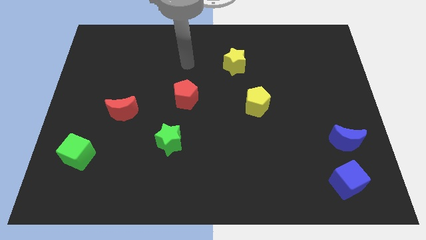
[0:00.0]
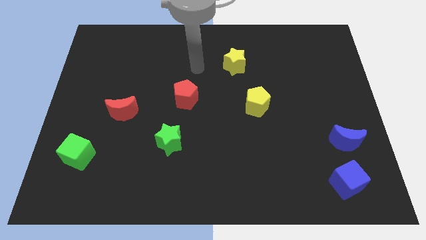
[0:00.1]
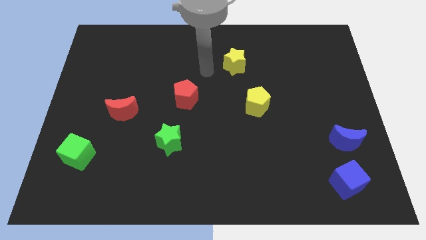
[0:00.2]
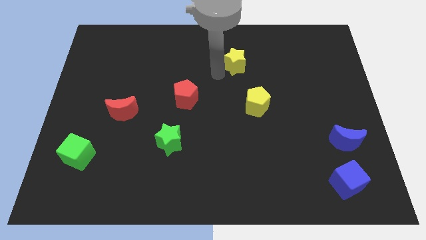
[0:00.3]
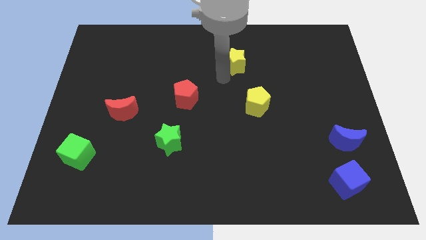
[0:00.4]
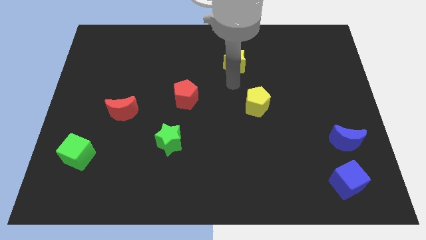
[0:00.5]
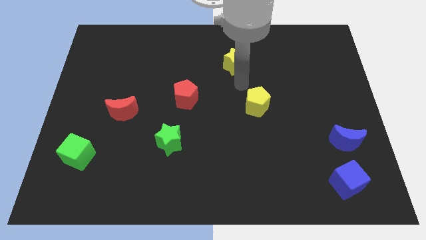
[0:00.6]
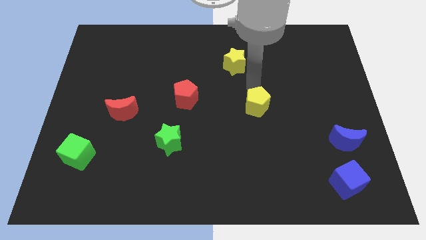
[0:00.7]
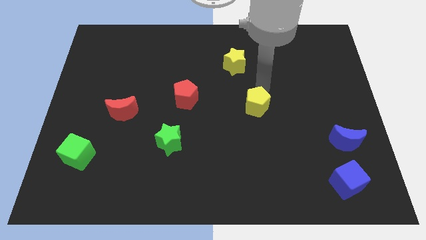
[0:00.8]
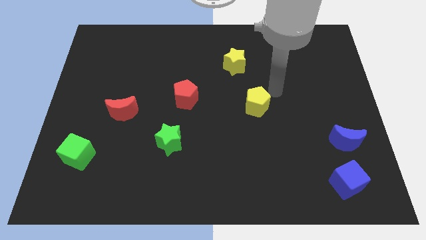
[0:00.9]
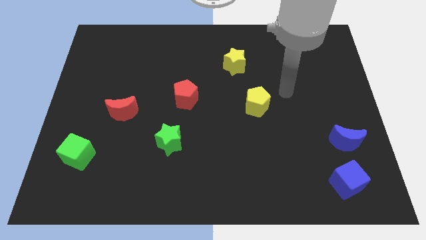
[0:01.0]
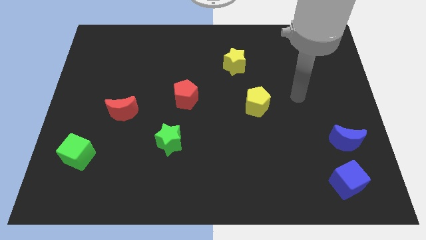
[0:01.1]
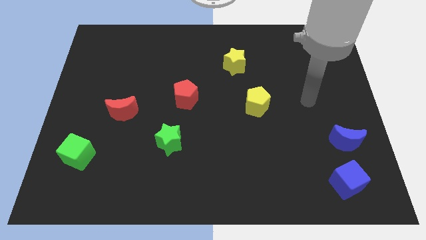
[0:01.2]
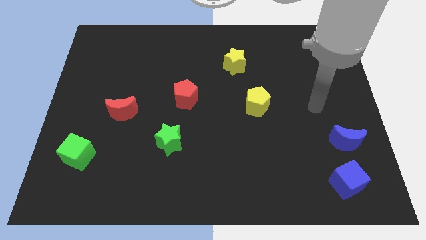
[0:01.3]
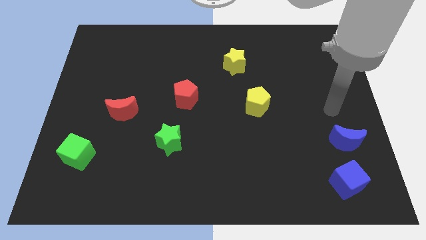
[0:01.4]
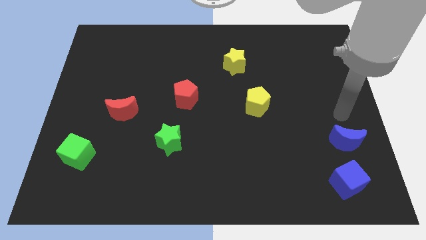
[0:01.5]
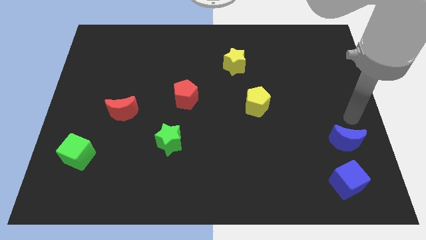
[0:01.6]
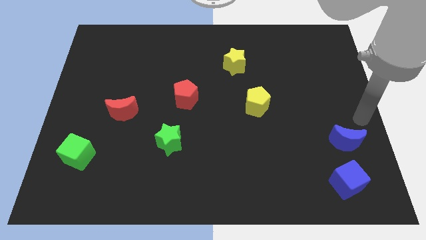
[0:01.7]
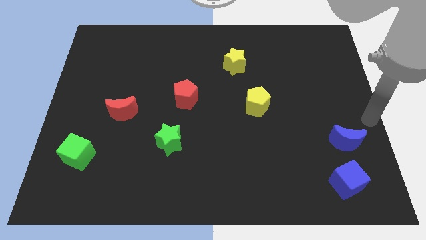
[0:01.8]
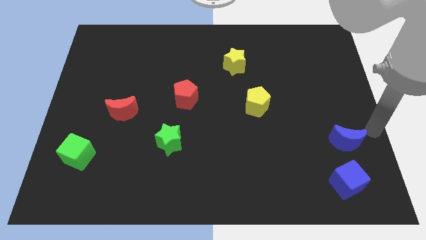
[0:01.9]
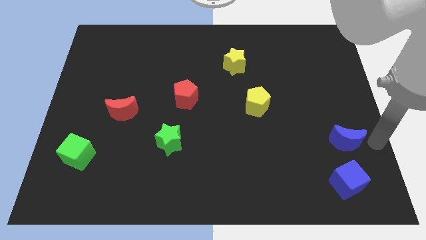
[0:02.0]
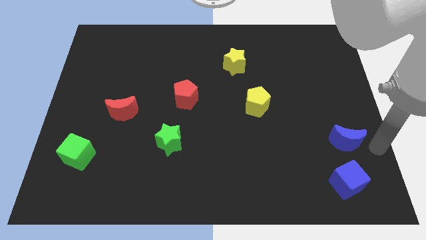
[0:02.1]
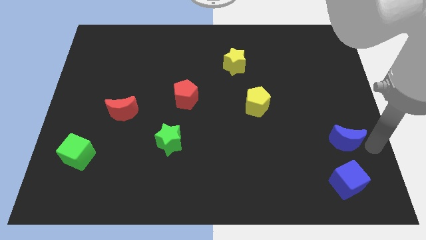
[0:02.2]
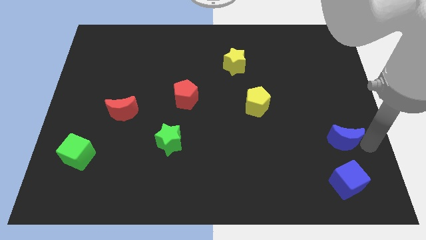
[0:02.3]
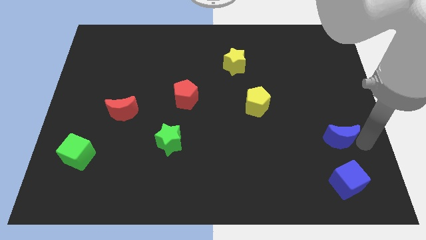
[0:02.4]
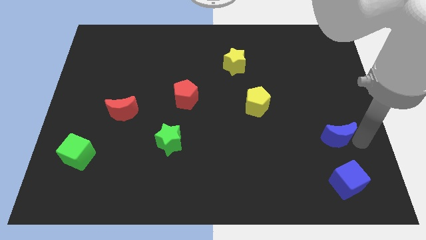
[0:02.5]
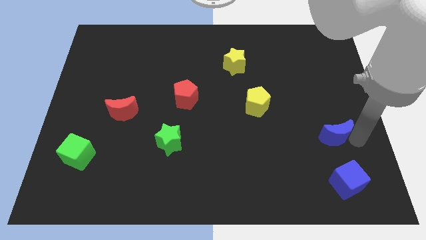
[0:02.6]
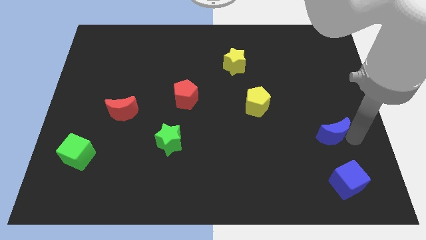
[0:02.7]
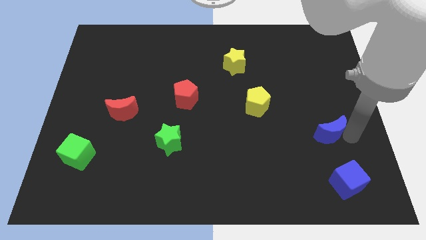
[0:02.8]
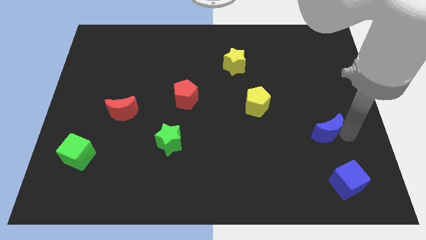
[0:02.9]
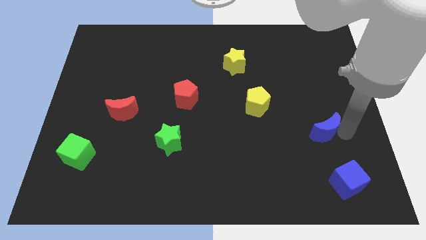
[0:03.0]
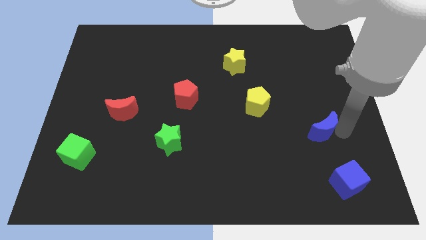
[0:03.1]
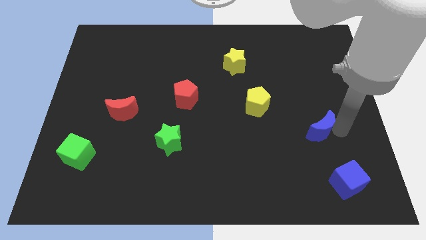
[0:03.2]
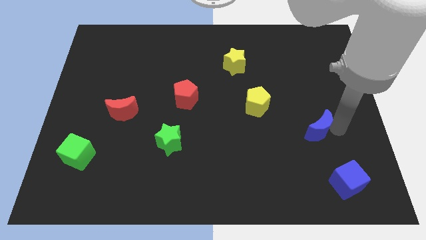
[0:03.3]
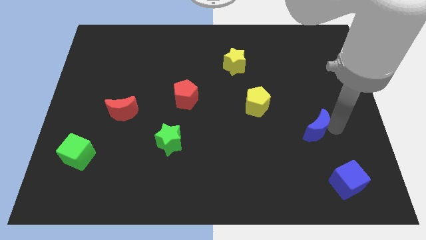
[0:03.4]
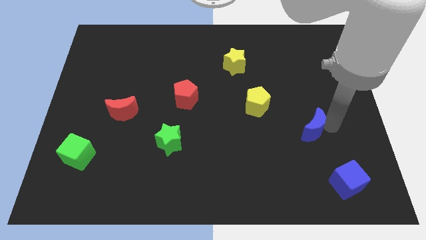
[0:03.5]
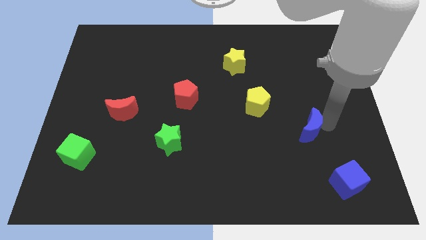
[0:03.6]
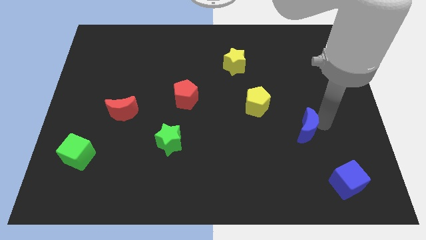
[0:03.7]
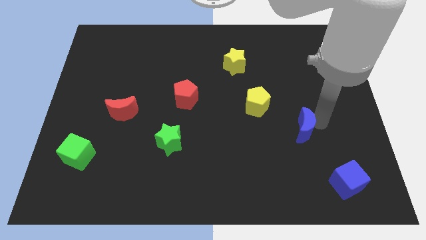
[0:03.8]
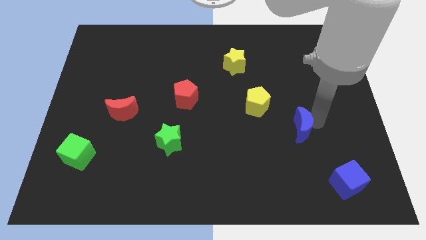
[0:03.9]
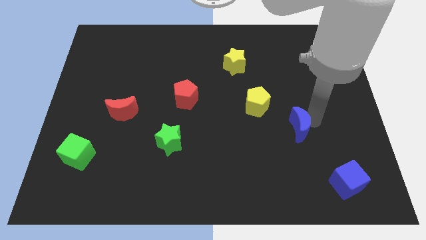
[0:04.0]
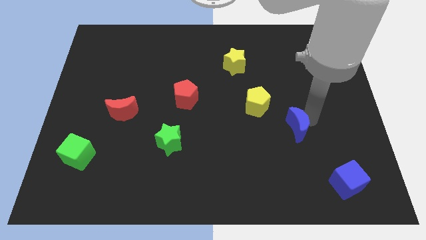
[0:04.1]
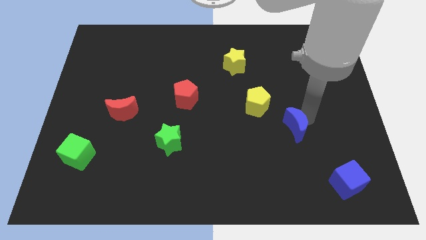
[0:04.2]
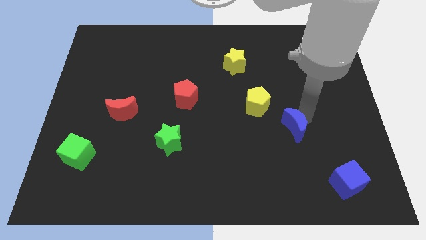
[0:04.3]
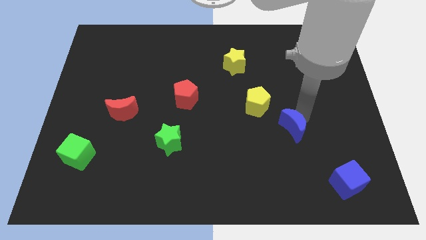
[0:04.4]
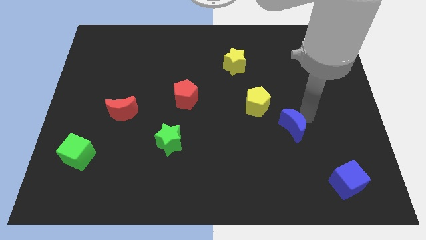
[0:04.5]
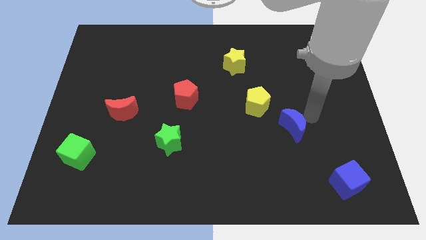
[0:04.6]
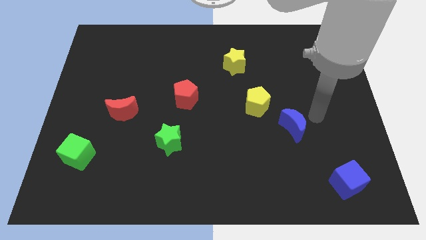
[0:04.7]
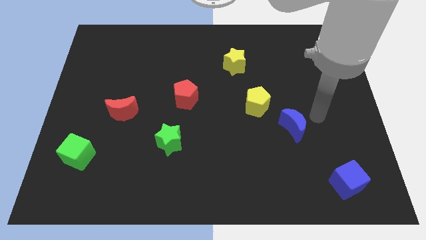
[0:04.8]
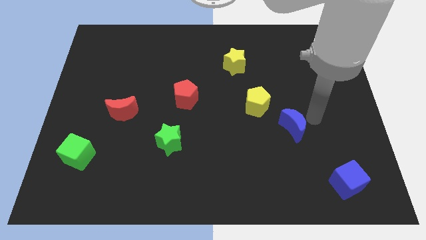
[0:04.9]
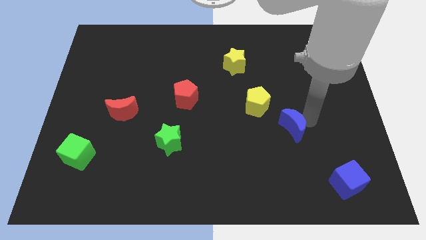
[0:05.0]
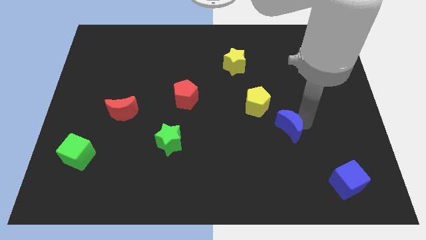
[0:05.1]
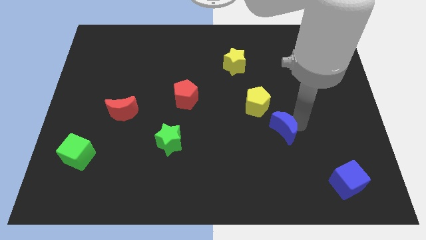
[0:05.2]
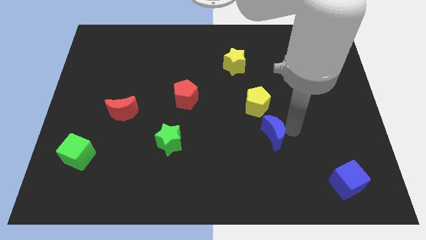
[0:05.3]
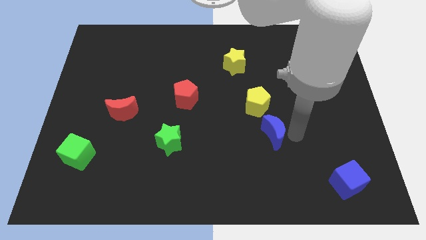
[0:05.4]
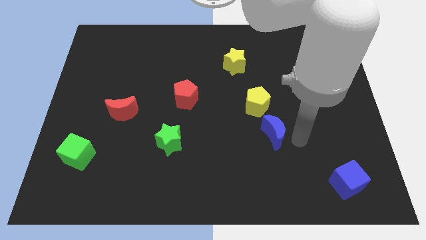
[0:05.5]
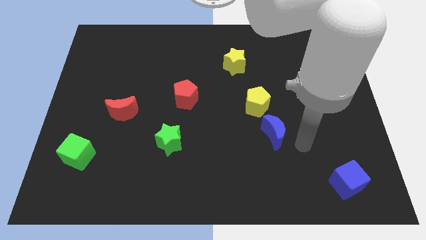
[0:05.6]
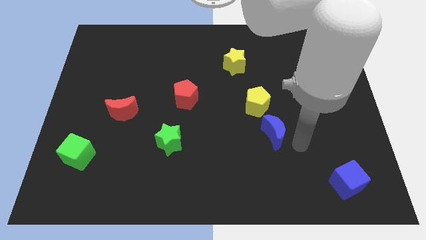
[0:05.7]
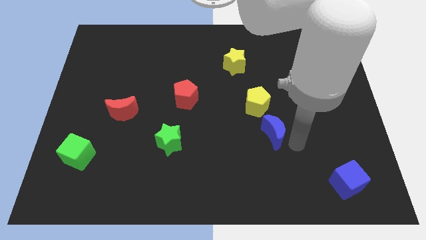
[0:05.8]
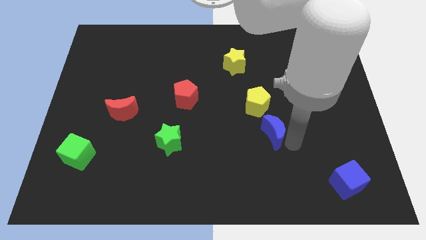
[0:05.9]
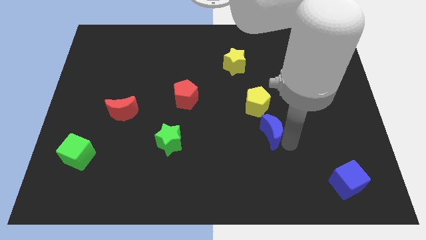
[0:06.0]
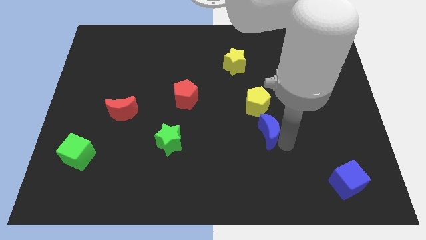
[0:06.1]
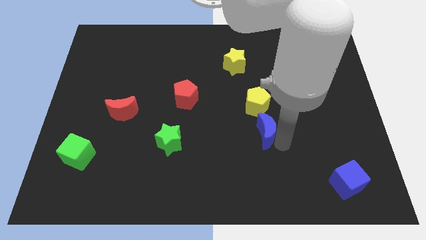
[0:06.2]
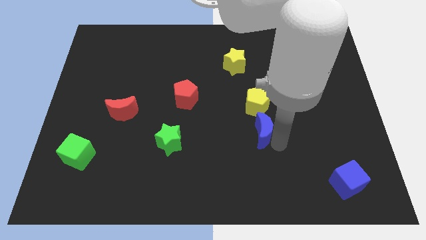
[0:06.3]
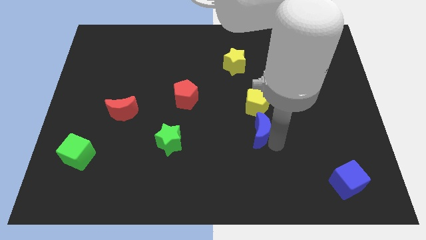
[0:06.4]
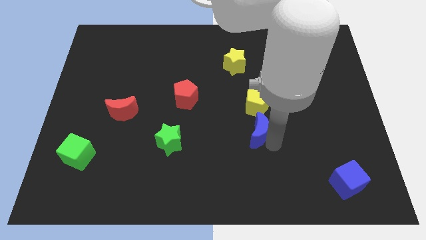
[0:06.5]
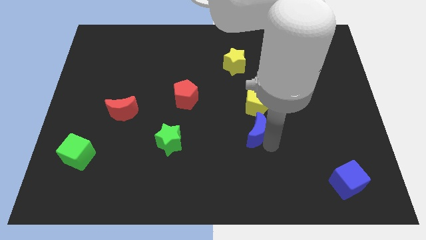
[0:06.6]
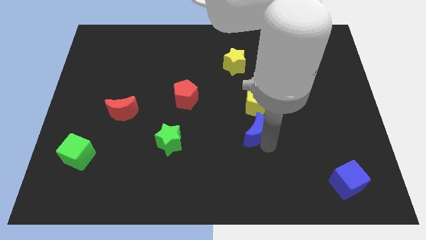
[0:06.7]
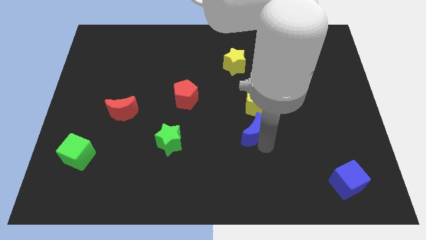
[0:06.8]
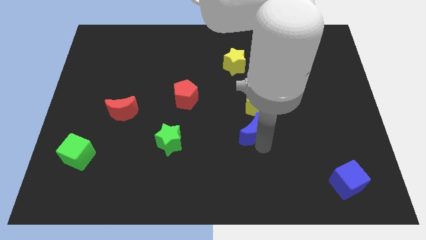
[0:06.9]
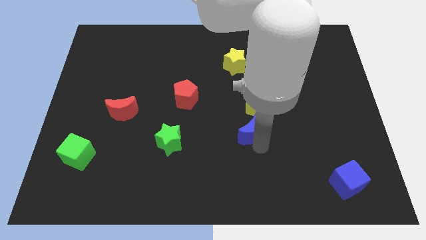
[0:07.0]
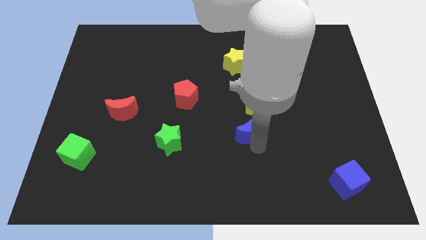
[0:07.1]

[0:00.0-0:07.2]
move the blue moon to the center
